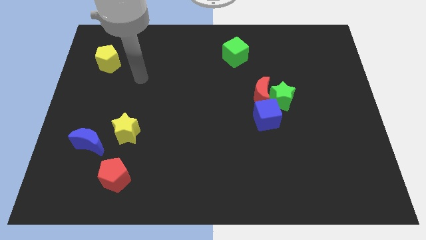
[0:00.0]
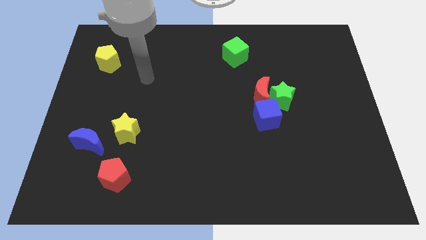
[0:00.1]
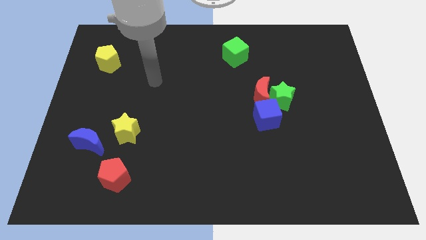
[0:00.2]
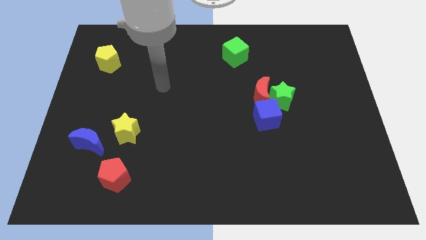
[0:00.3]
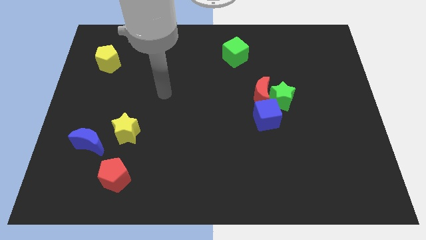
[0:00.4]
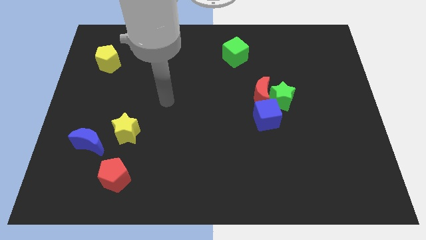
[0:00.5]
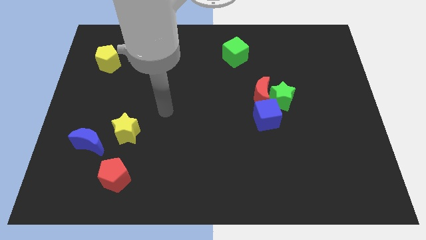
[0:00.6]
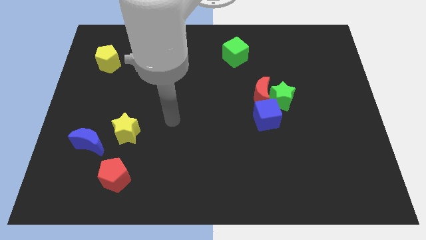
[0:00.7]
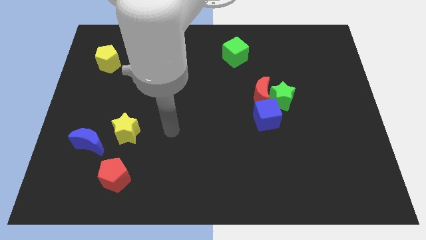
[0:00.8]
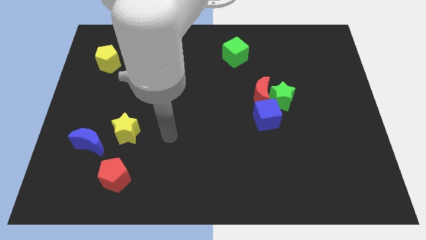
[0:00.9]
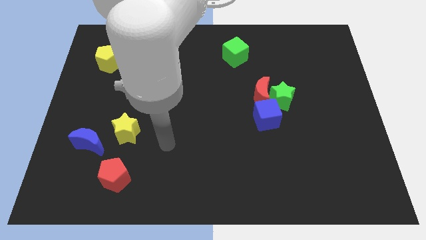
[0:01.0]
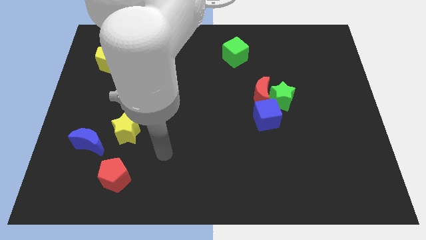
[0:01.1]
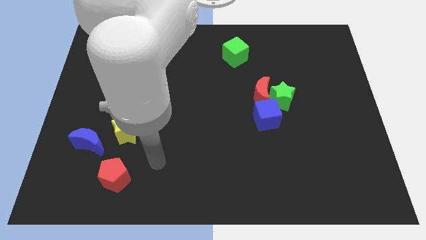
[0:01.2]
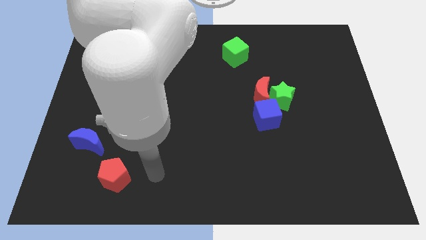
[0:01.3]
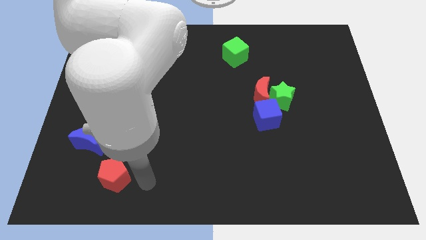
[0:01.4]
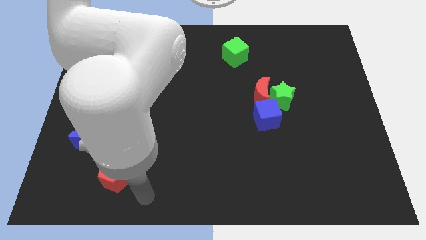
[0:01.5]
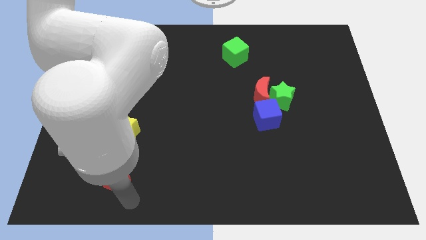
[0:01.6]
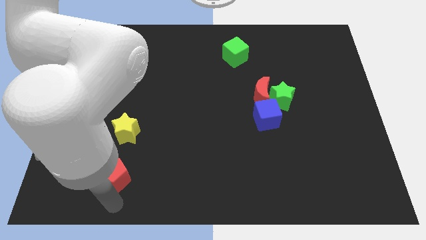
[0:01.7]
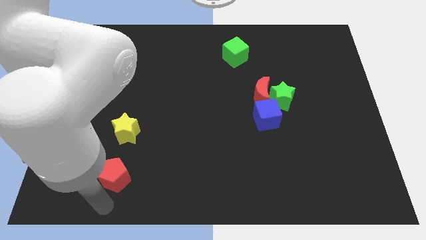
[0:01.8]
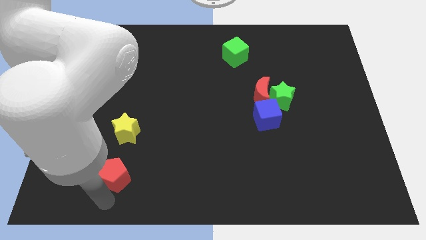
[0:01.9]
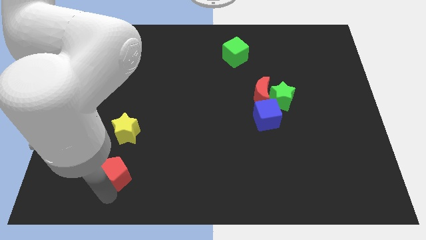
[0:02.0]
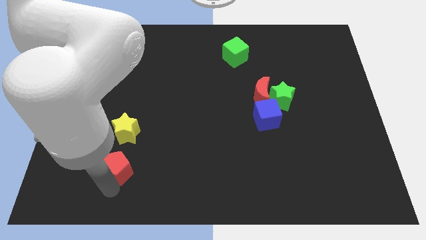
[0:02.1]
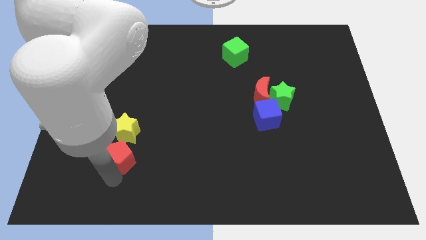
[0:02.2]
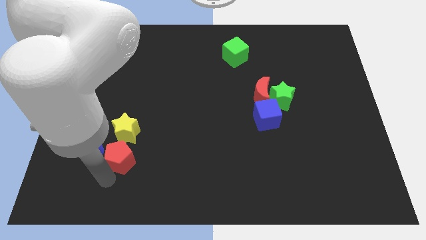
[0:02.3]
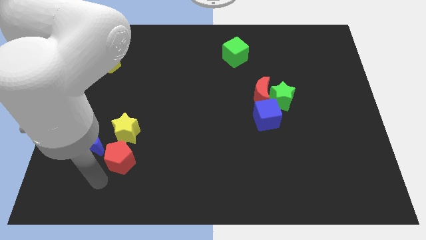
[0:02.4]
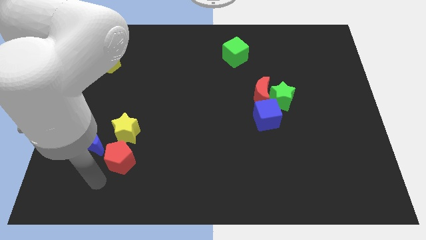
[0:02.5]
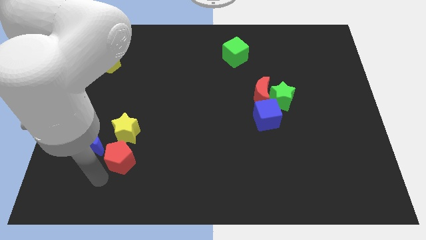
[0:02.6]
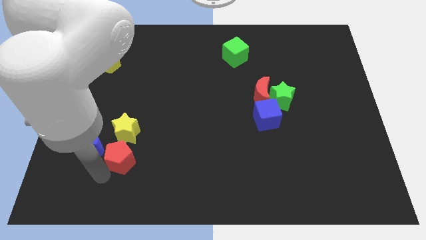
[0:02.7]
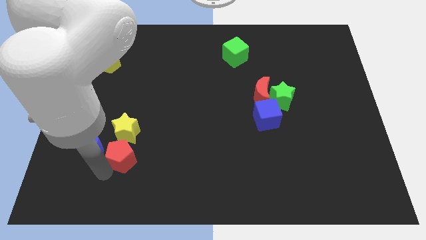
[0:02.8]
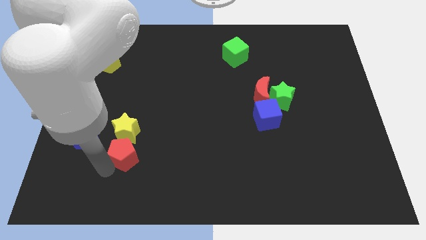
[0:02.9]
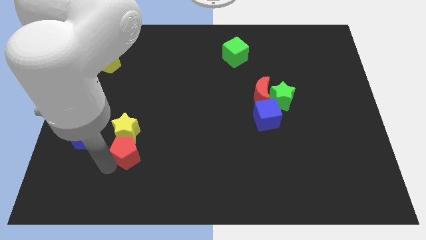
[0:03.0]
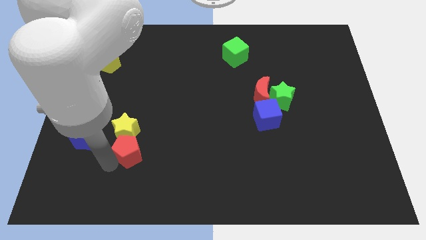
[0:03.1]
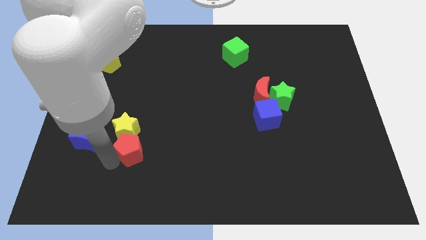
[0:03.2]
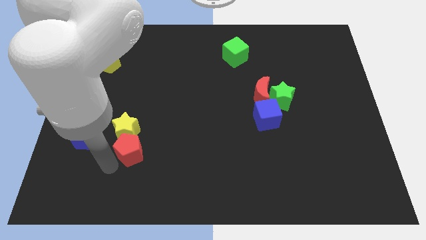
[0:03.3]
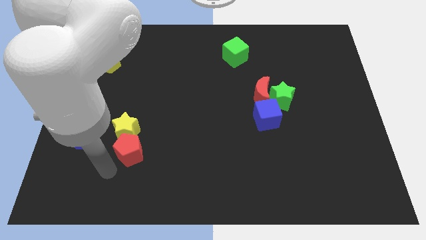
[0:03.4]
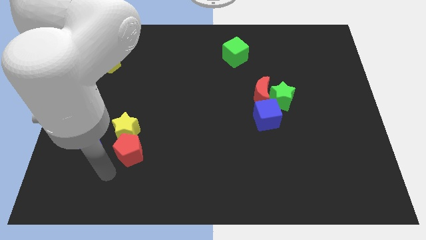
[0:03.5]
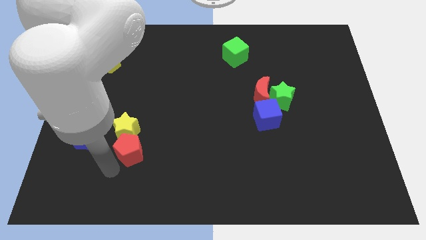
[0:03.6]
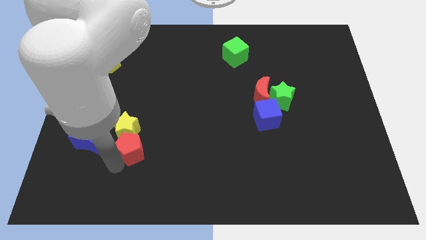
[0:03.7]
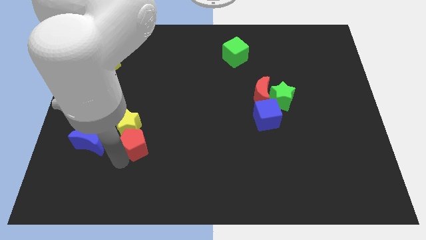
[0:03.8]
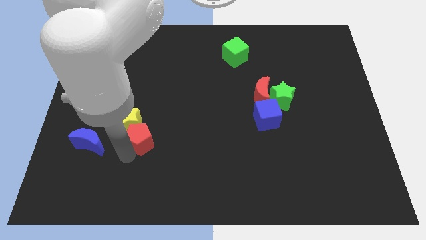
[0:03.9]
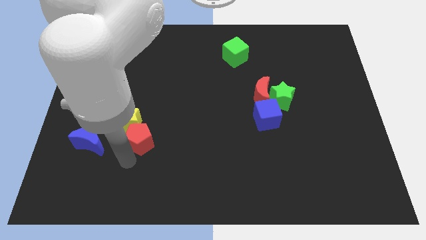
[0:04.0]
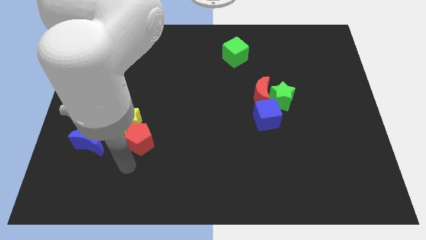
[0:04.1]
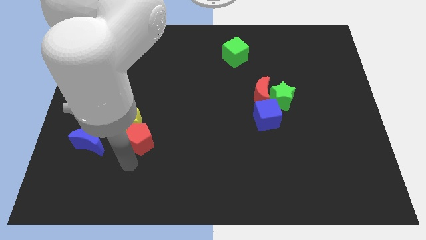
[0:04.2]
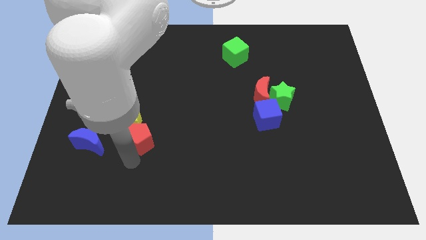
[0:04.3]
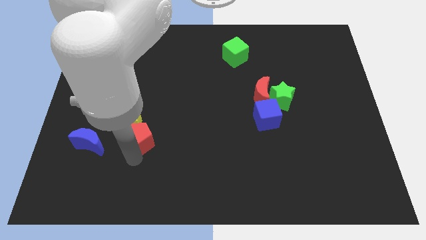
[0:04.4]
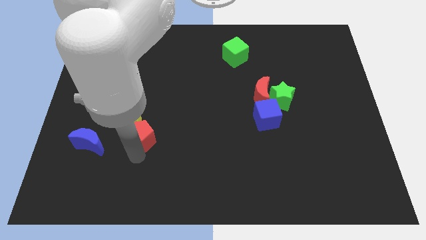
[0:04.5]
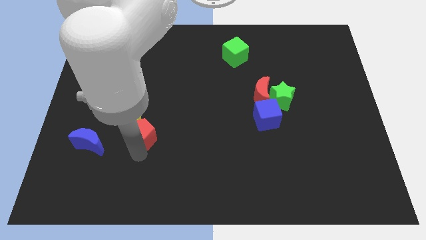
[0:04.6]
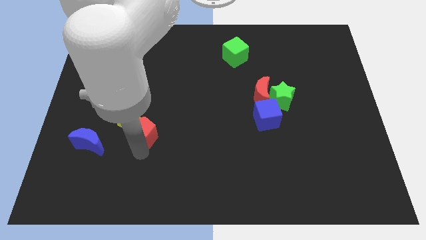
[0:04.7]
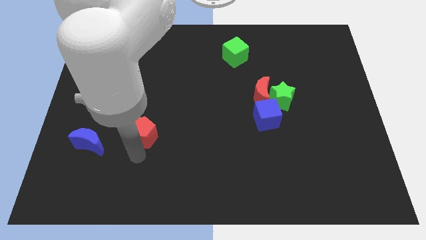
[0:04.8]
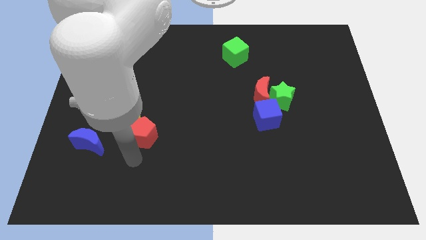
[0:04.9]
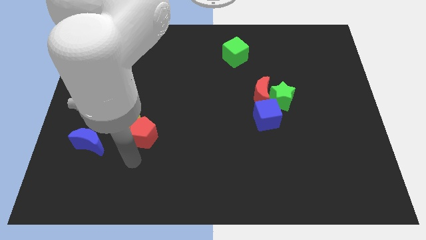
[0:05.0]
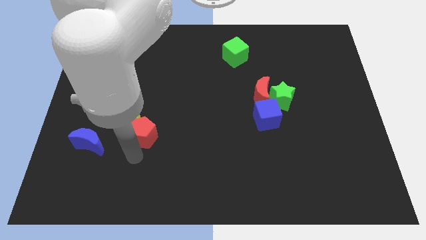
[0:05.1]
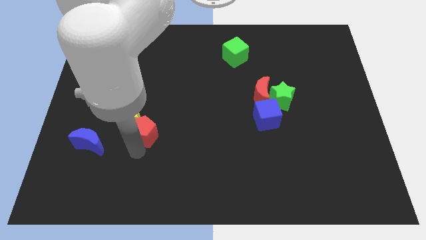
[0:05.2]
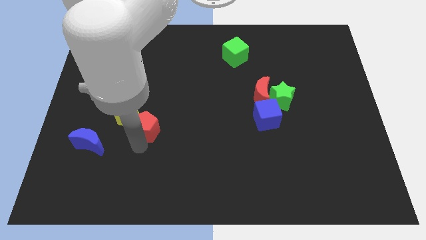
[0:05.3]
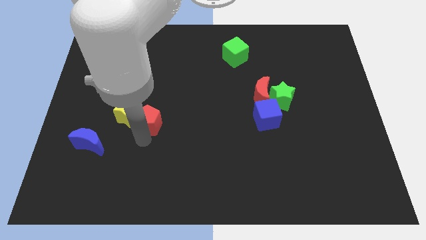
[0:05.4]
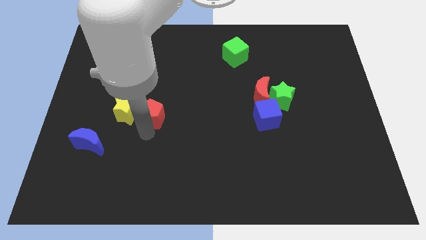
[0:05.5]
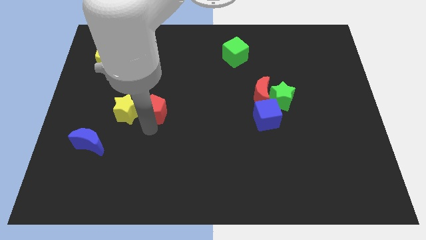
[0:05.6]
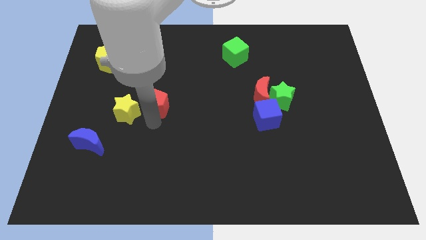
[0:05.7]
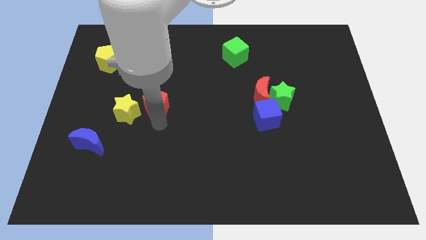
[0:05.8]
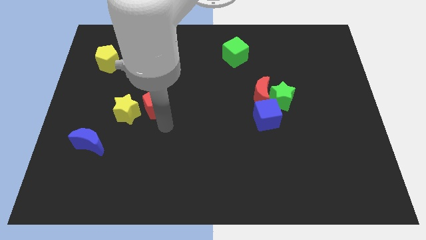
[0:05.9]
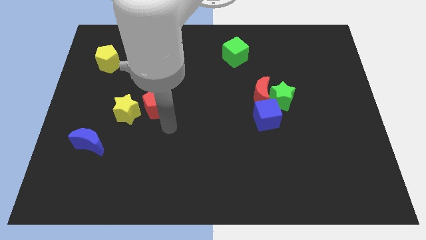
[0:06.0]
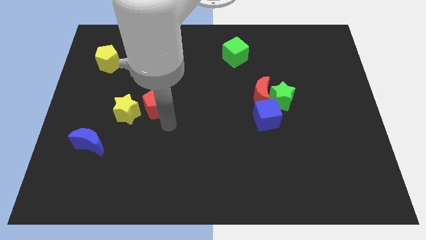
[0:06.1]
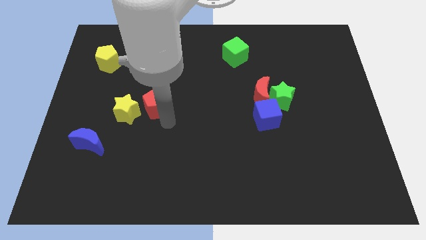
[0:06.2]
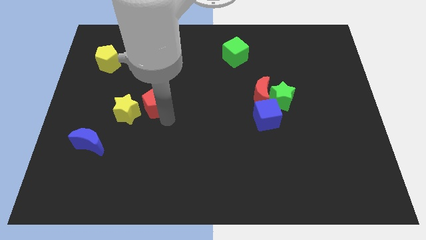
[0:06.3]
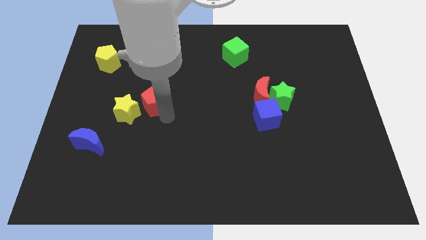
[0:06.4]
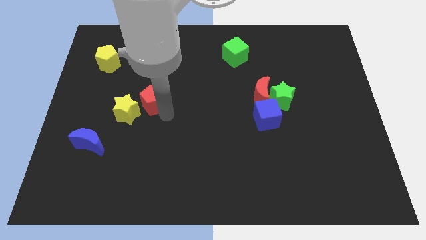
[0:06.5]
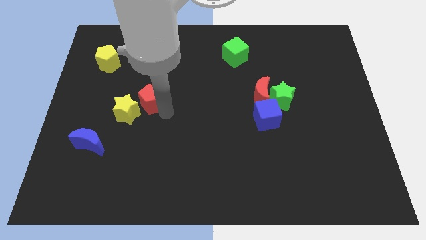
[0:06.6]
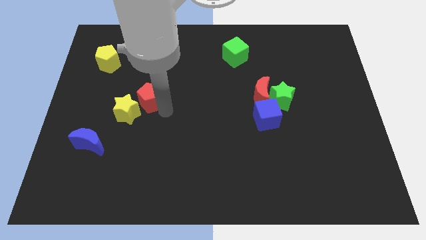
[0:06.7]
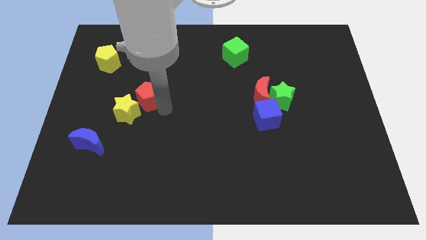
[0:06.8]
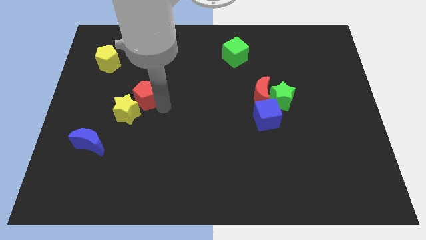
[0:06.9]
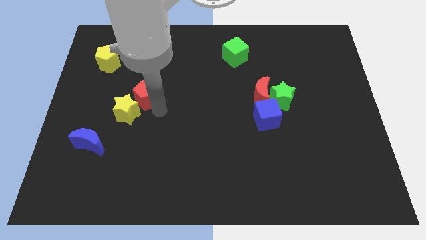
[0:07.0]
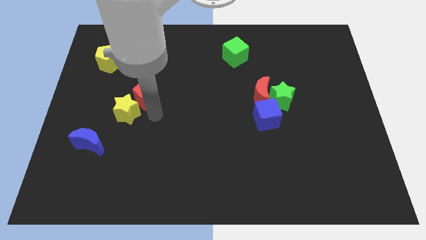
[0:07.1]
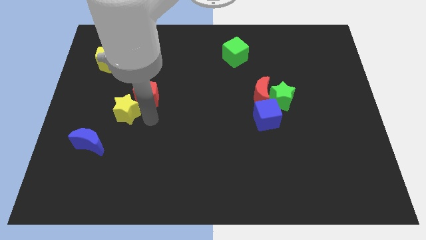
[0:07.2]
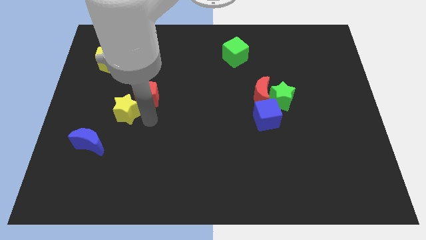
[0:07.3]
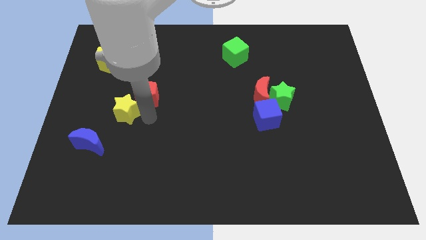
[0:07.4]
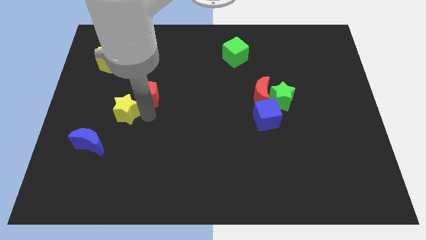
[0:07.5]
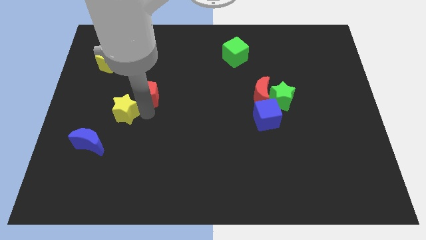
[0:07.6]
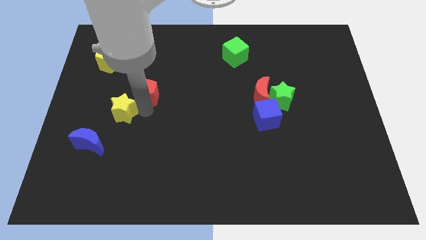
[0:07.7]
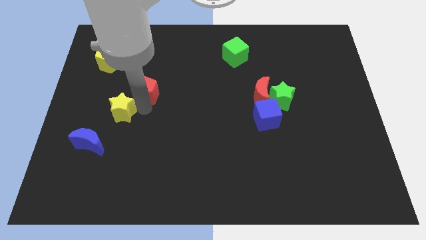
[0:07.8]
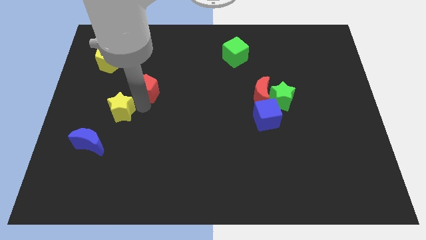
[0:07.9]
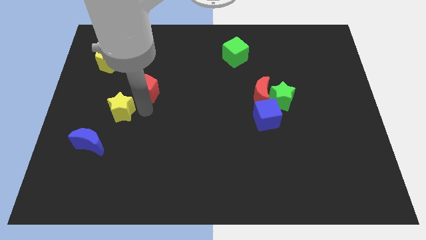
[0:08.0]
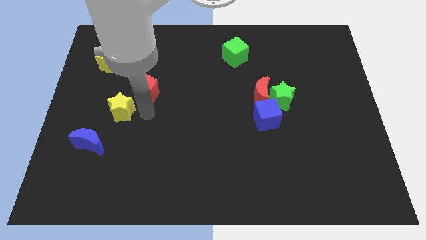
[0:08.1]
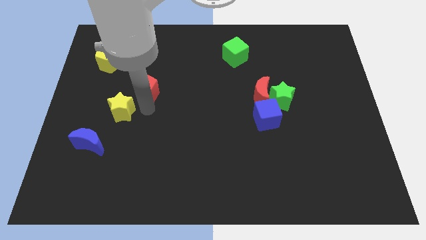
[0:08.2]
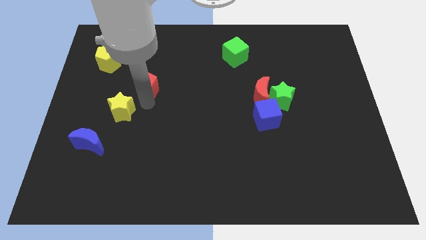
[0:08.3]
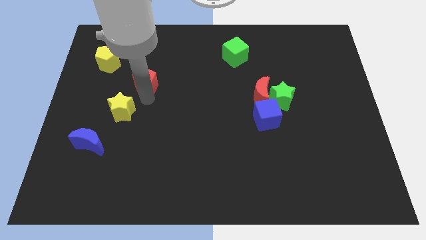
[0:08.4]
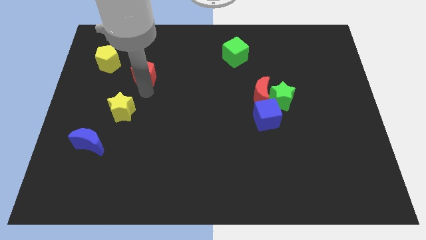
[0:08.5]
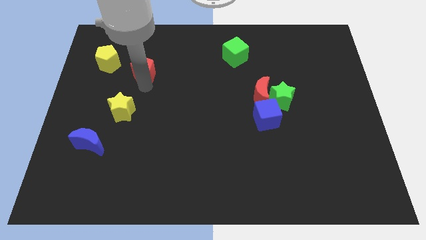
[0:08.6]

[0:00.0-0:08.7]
move the red pentagon just right of the yellow pentagon
